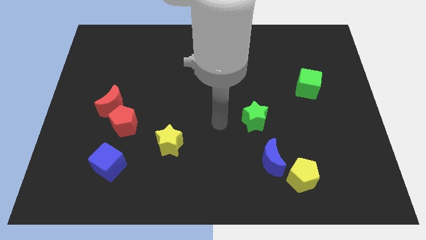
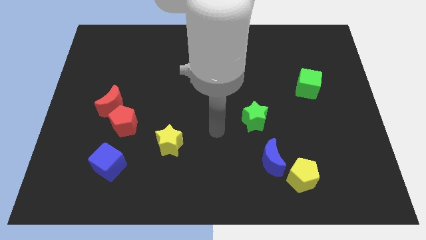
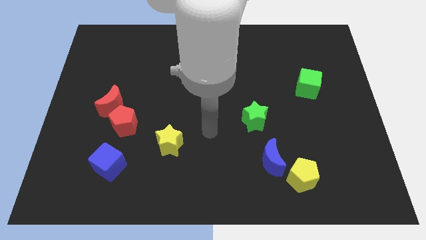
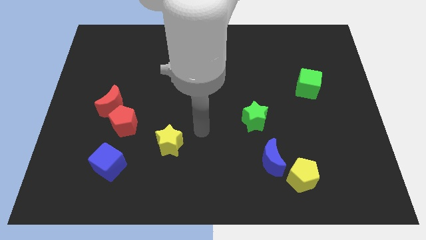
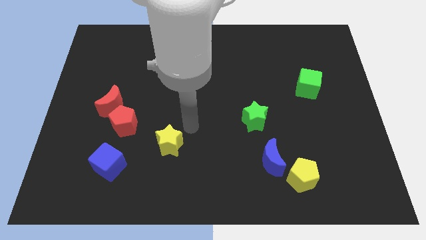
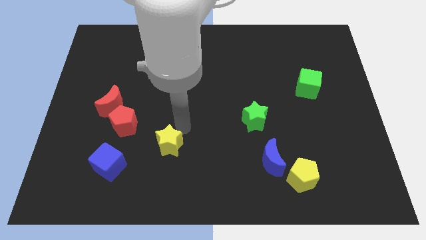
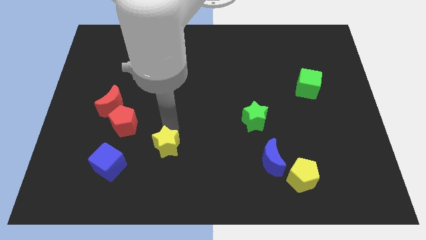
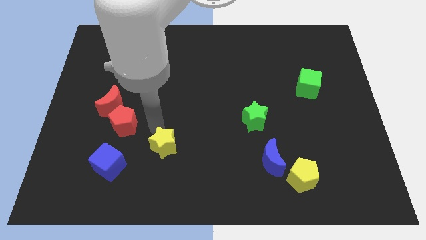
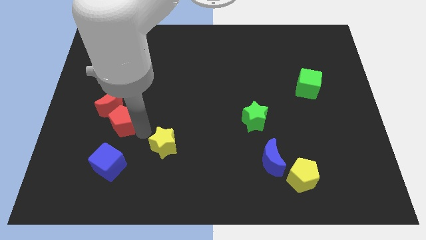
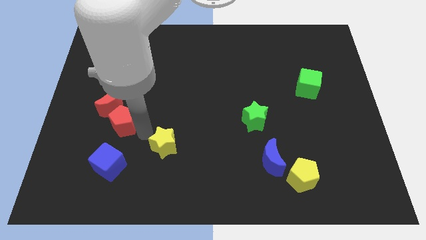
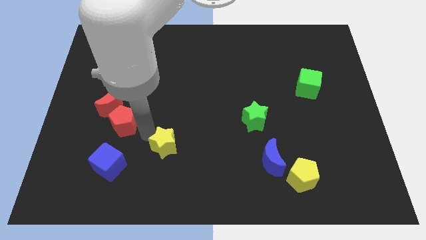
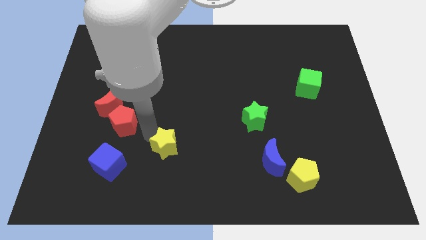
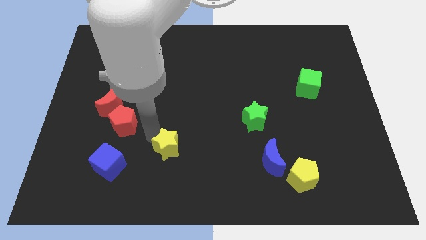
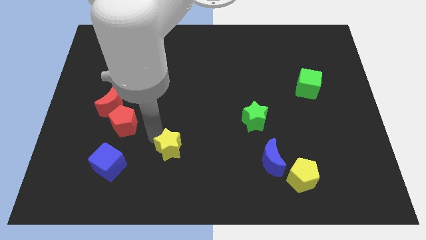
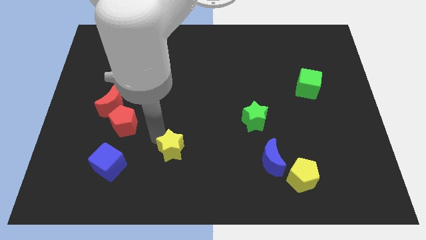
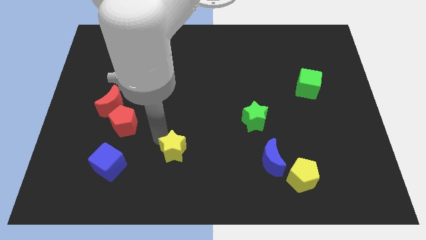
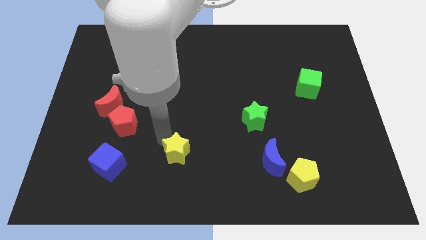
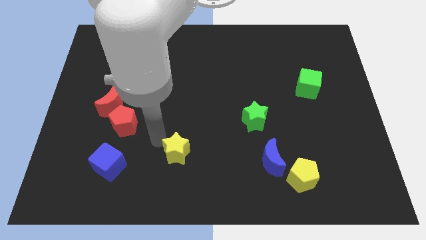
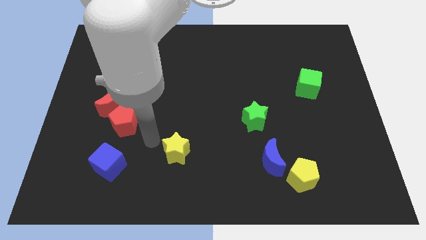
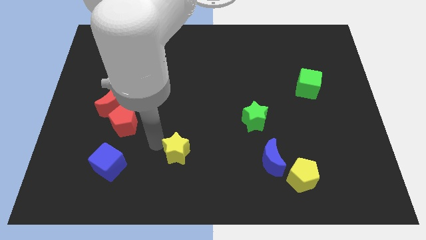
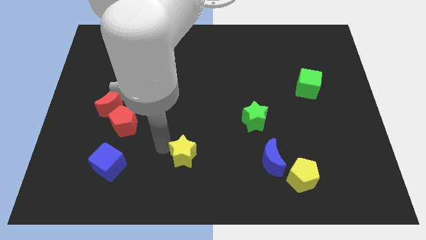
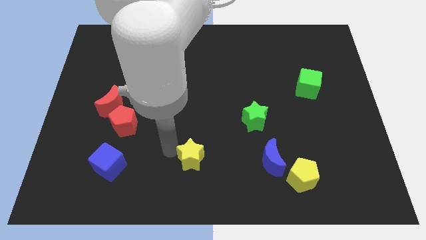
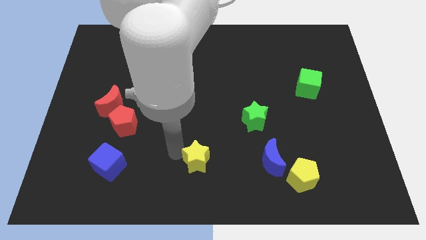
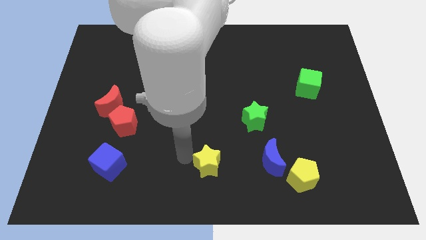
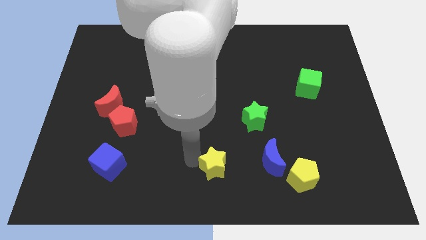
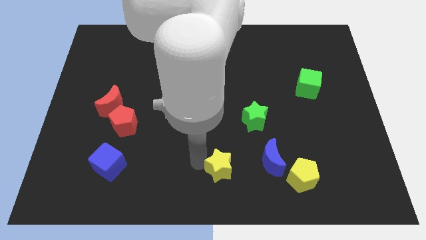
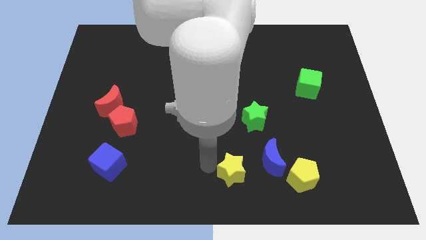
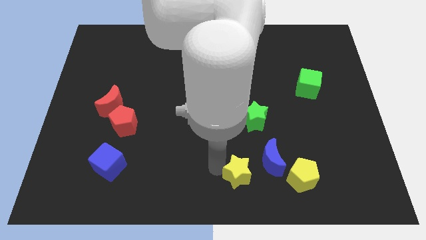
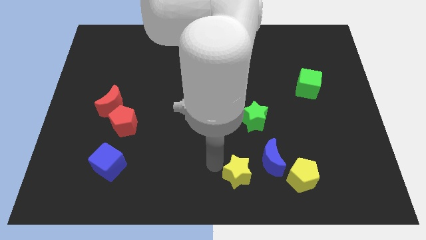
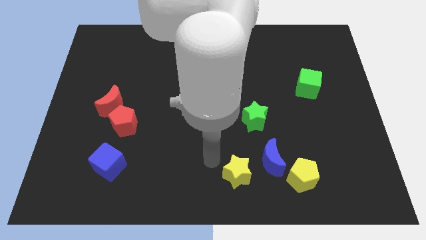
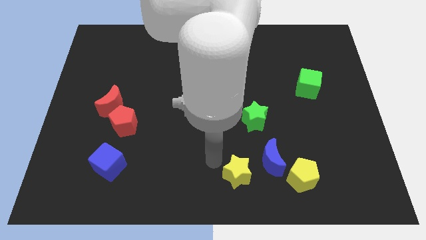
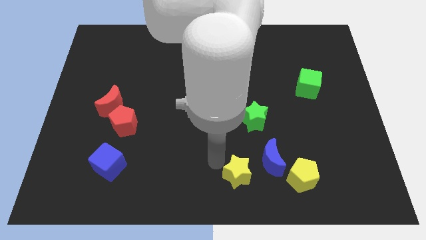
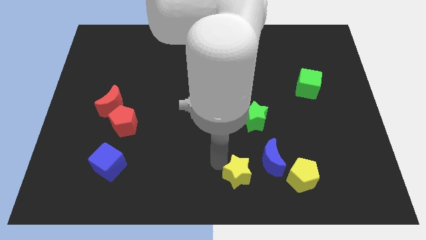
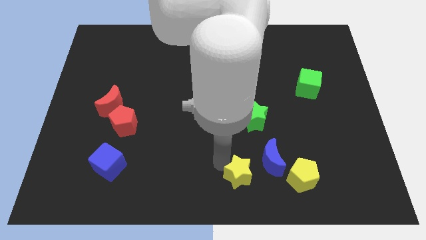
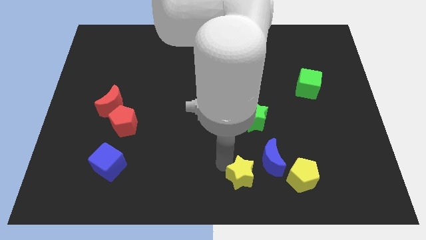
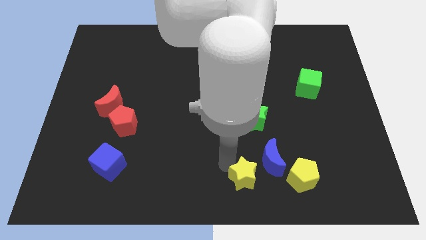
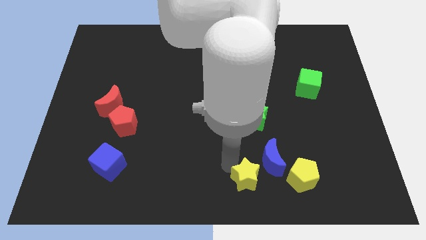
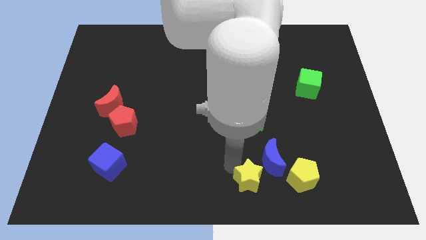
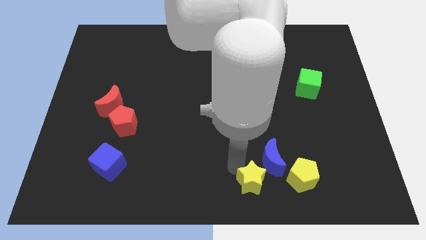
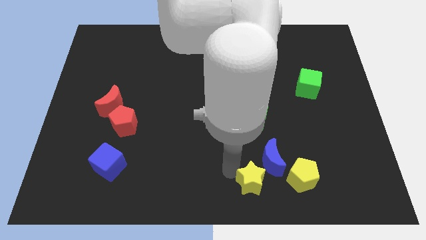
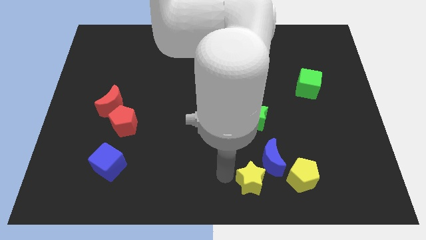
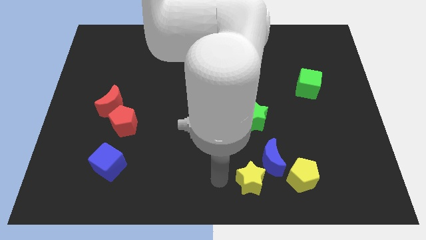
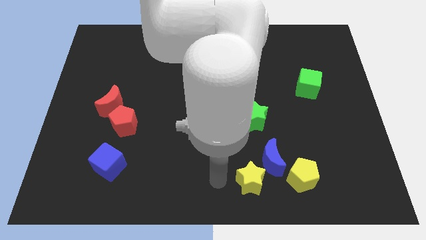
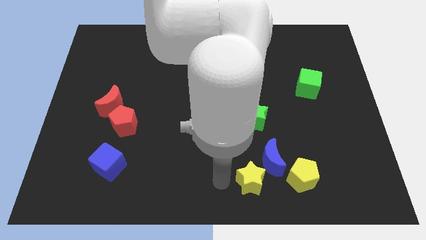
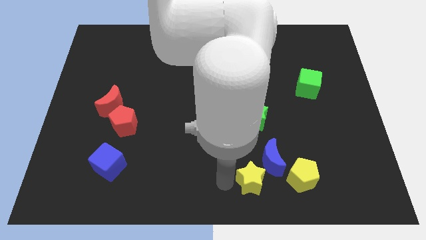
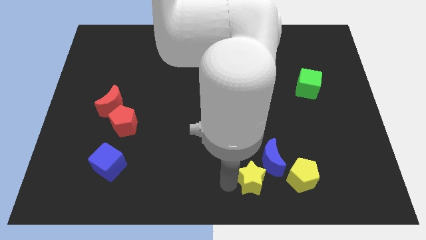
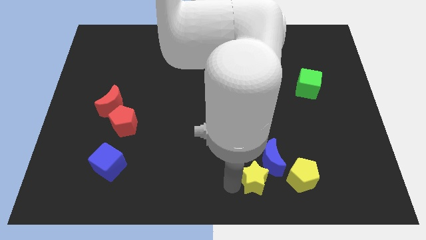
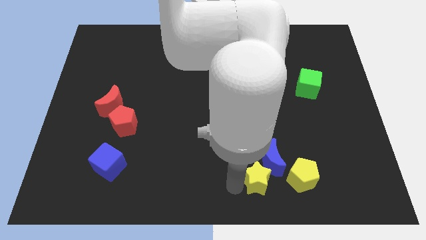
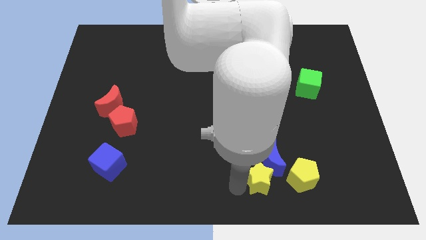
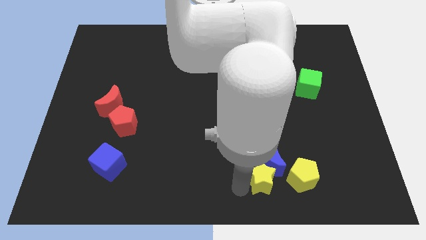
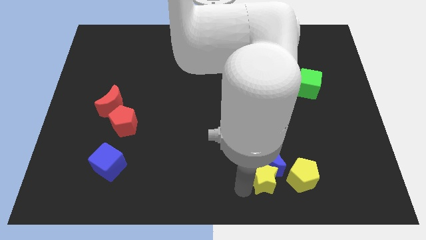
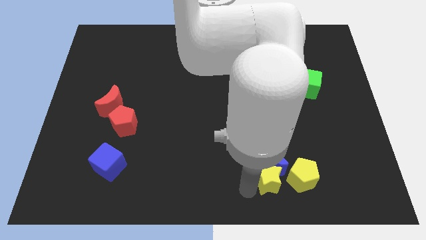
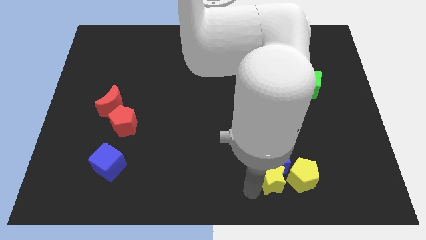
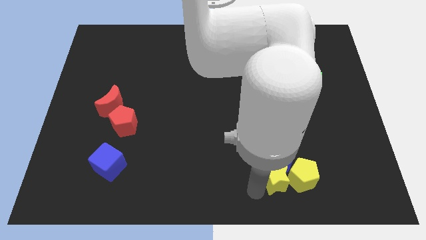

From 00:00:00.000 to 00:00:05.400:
move the yellow star close to the yellow pentagon

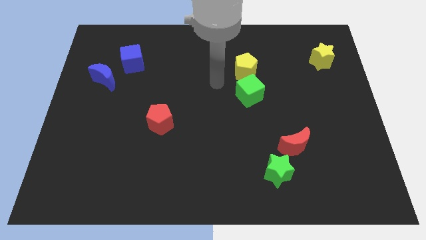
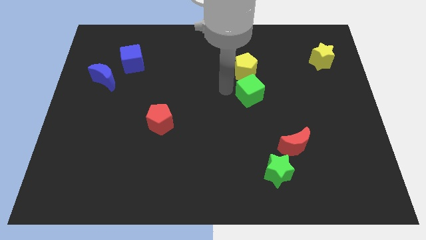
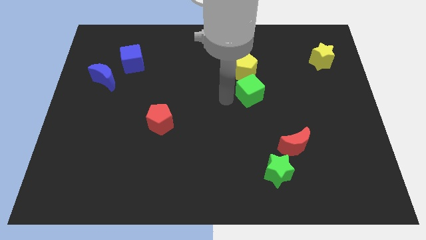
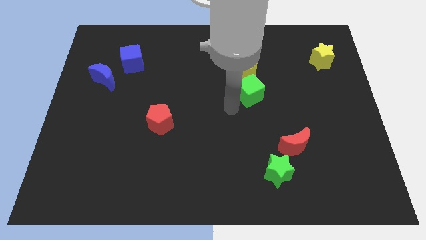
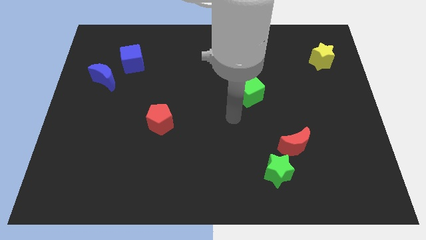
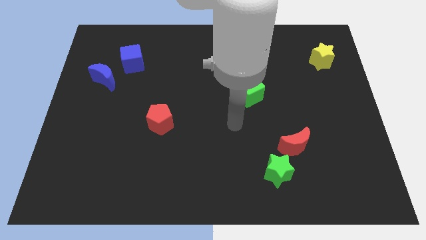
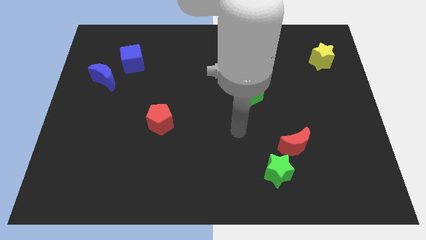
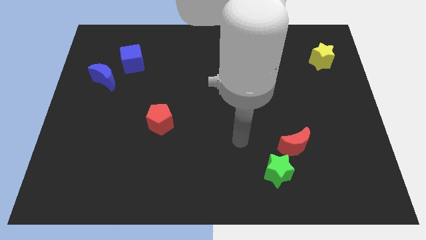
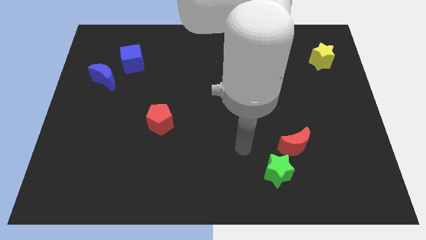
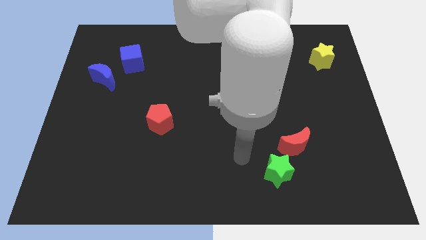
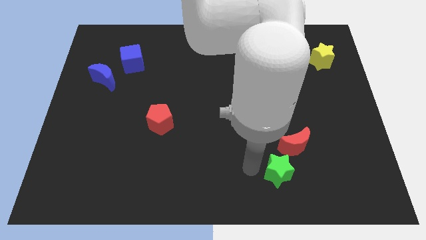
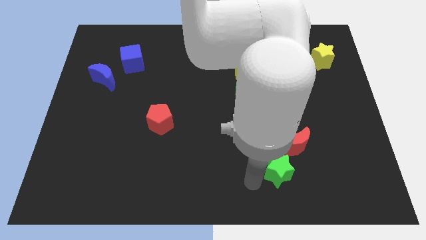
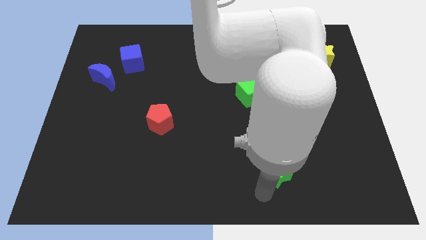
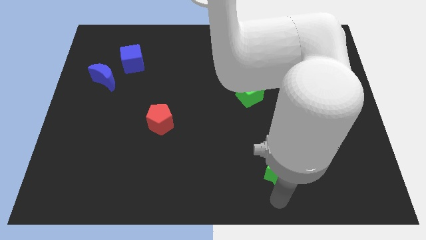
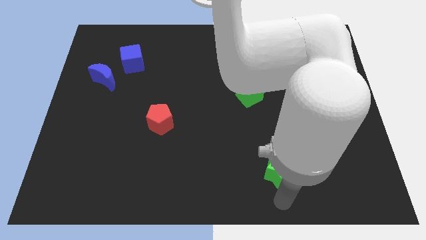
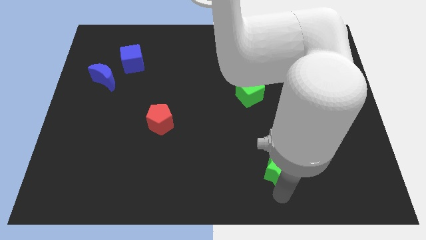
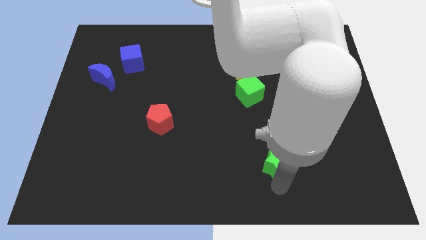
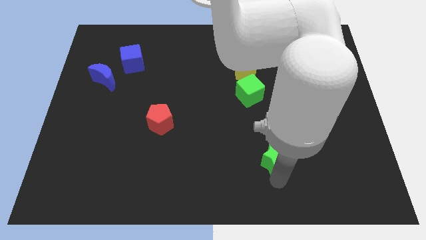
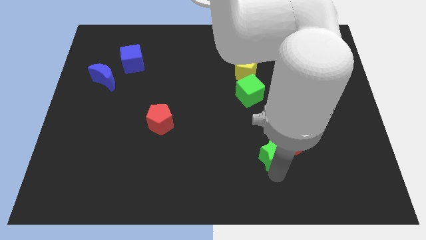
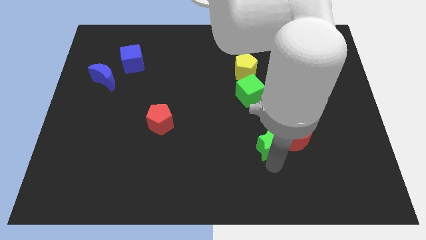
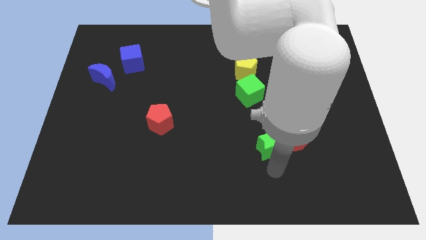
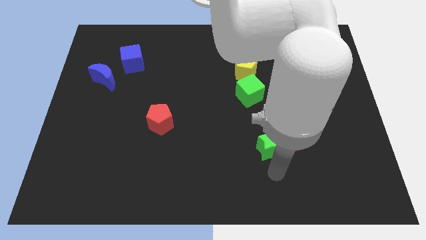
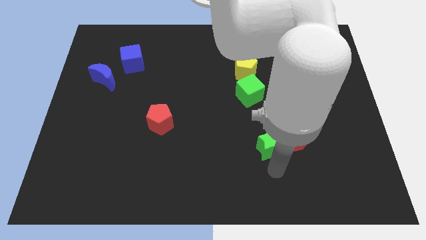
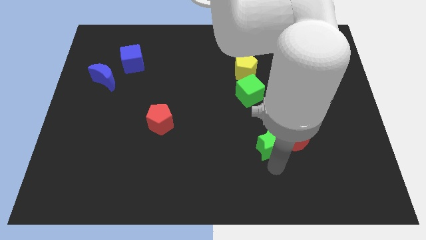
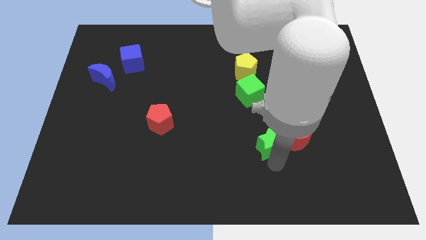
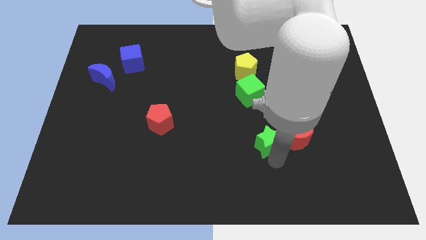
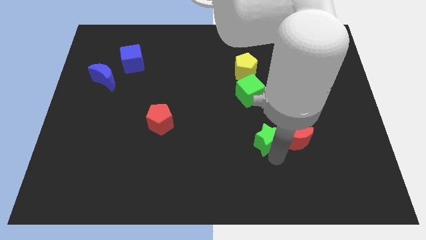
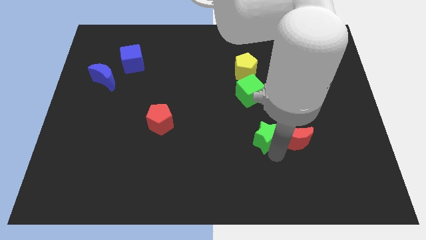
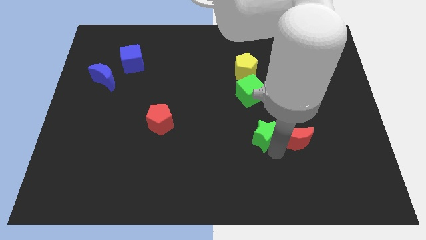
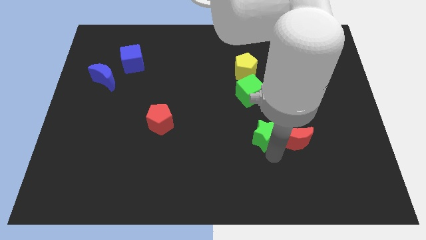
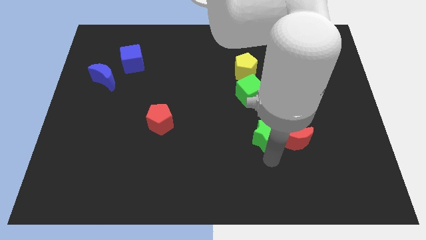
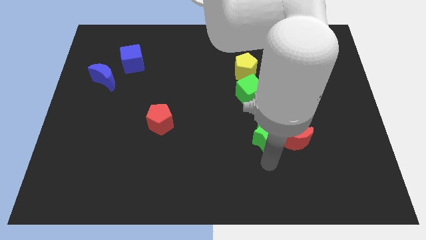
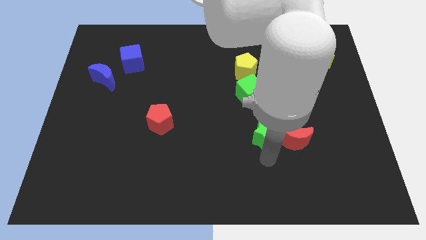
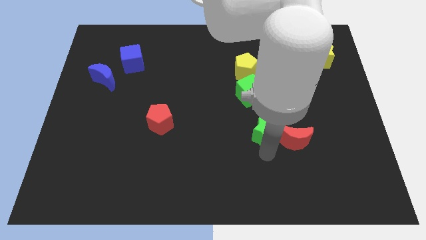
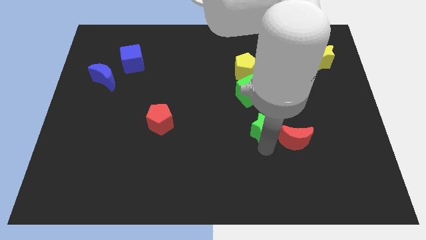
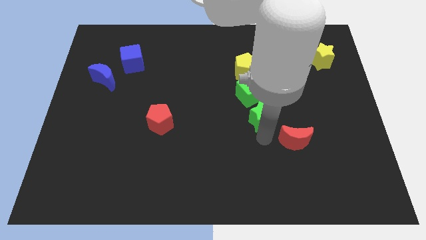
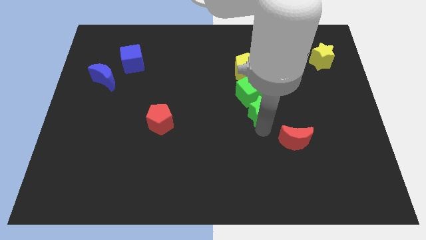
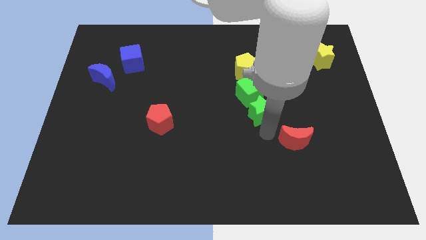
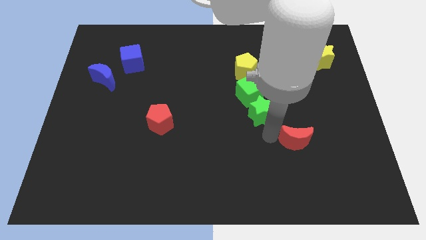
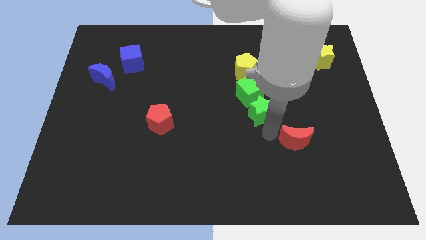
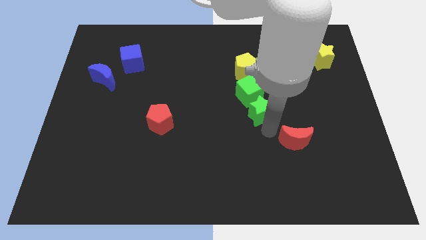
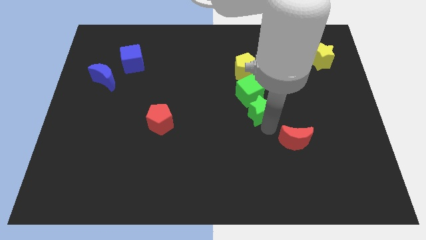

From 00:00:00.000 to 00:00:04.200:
put the green star next to the green cube
